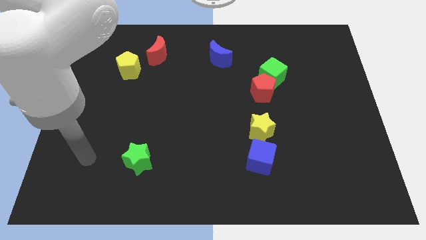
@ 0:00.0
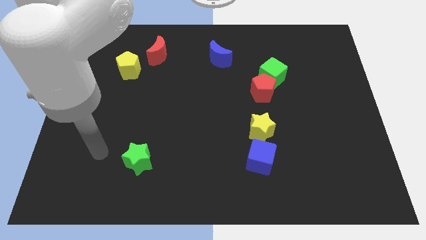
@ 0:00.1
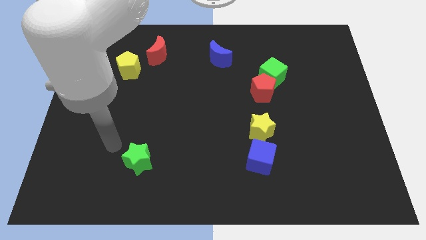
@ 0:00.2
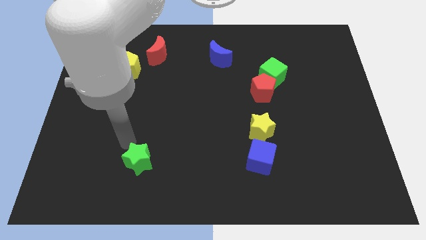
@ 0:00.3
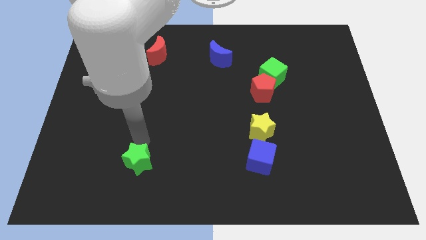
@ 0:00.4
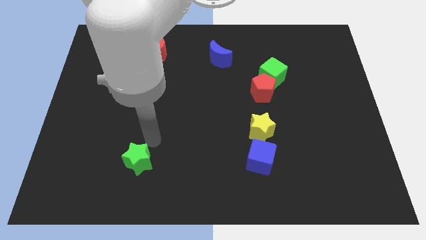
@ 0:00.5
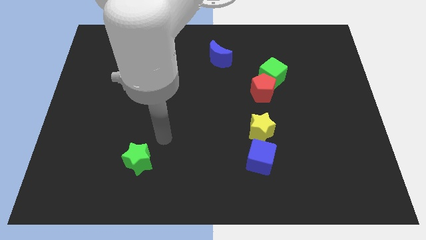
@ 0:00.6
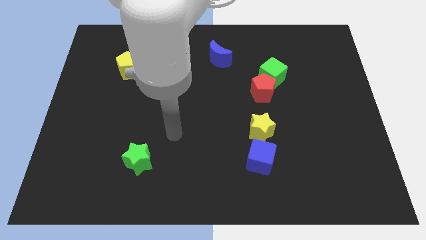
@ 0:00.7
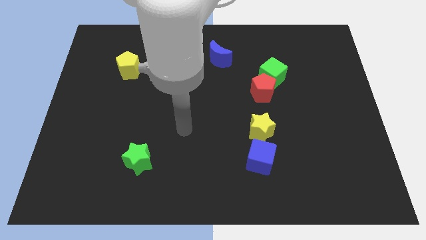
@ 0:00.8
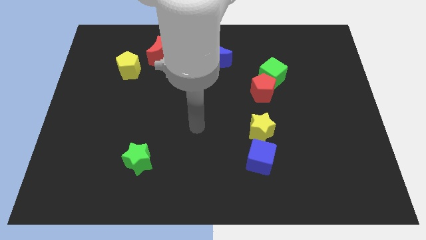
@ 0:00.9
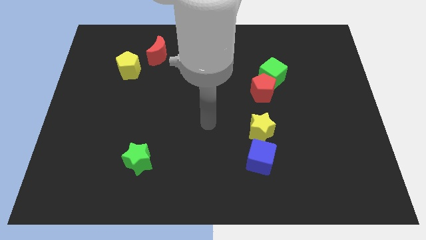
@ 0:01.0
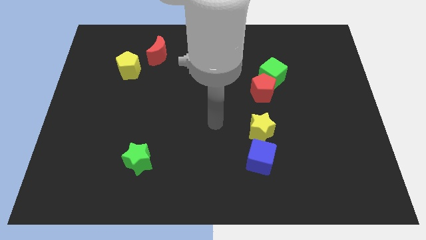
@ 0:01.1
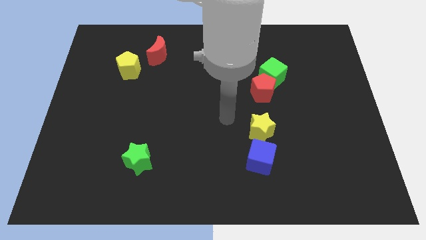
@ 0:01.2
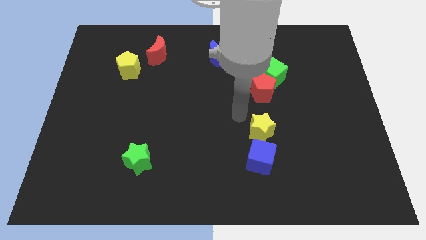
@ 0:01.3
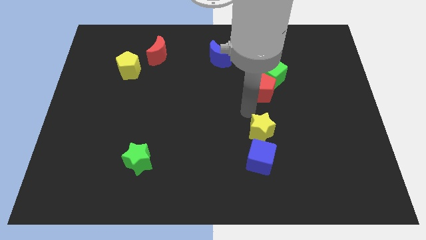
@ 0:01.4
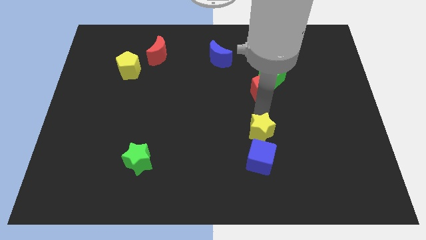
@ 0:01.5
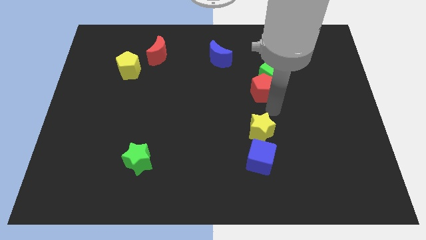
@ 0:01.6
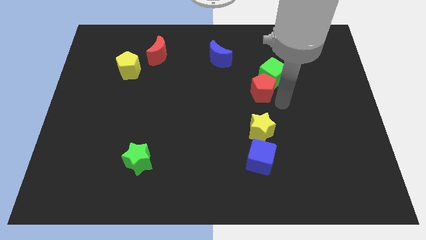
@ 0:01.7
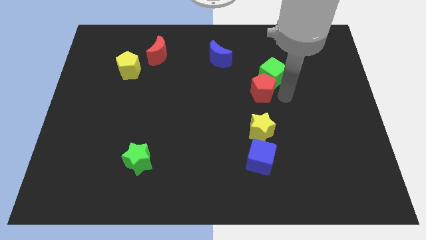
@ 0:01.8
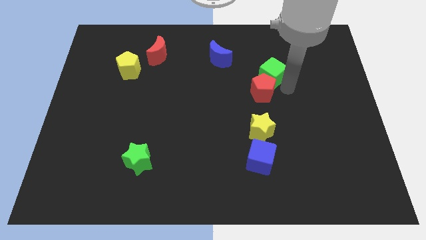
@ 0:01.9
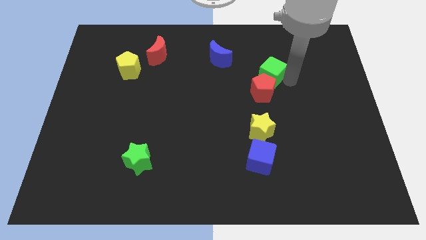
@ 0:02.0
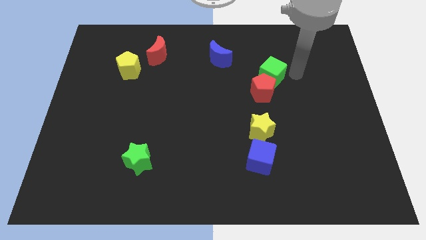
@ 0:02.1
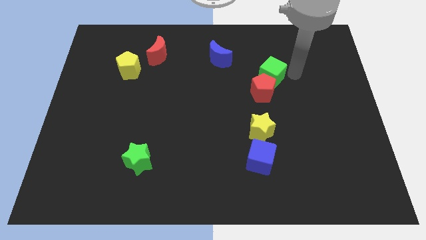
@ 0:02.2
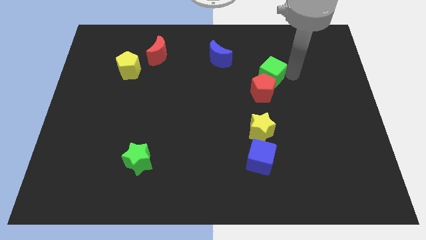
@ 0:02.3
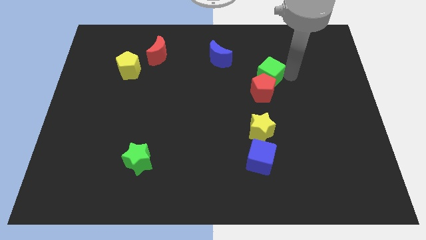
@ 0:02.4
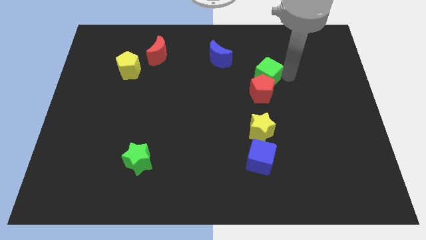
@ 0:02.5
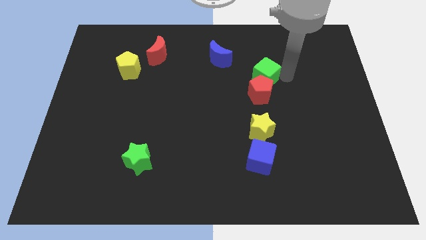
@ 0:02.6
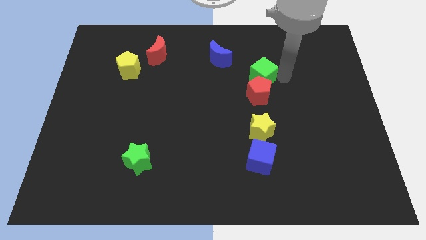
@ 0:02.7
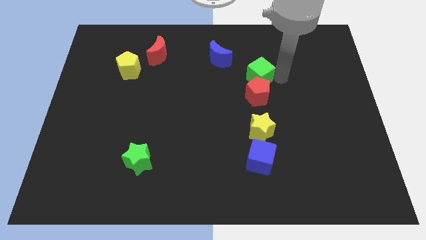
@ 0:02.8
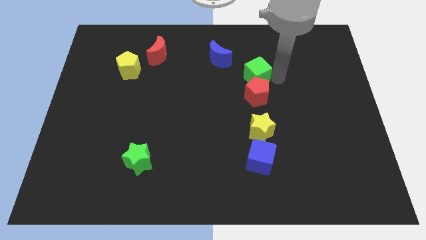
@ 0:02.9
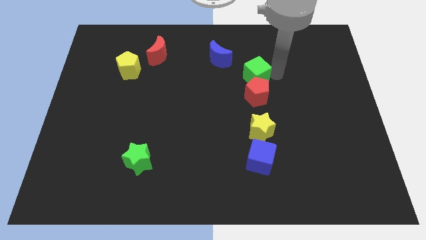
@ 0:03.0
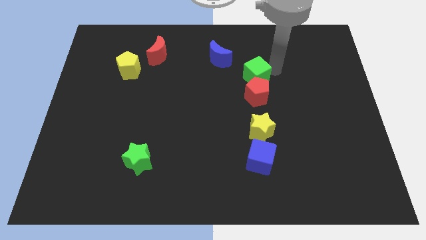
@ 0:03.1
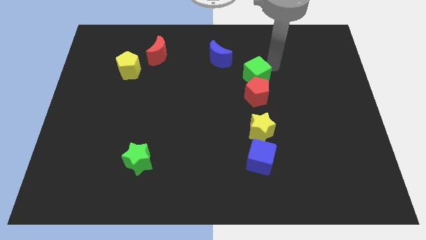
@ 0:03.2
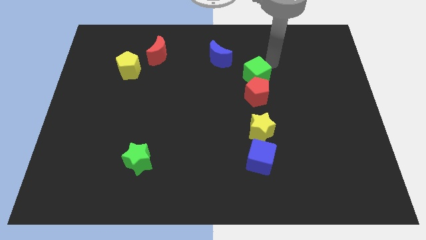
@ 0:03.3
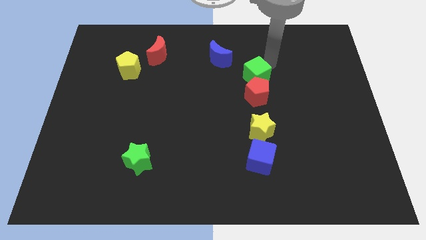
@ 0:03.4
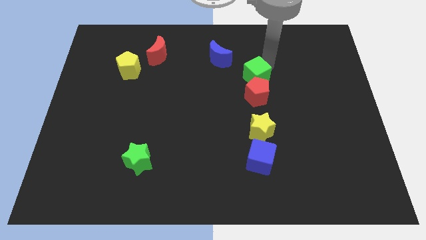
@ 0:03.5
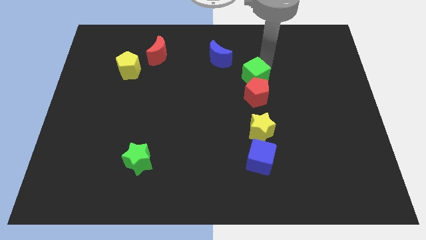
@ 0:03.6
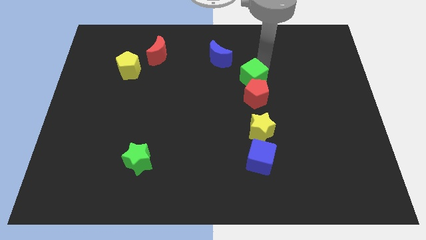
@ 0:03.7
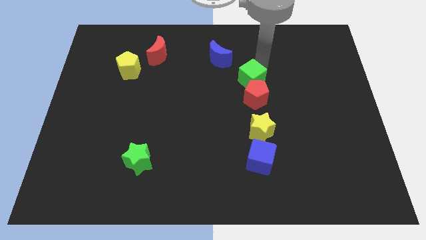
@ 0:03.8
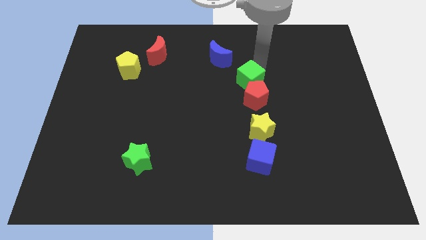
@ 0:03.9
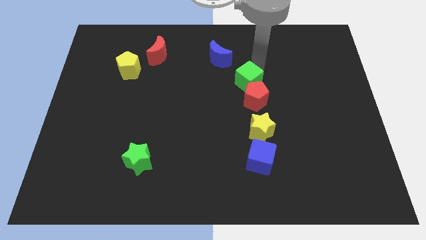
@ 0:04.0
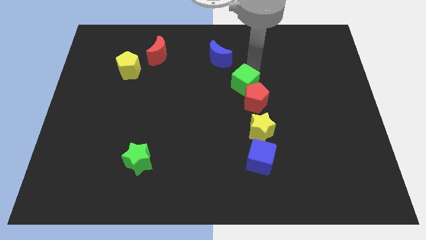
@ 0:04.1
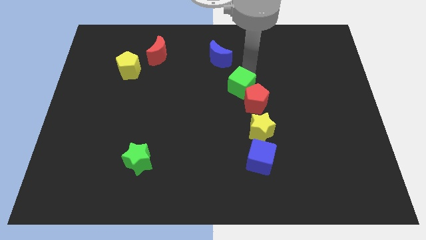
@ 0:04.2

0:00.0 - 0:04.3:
slightly push the green cube down and left diagonally

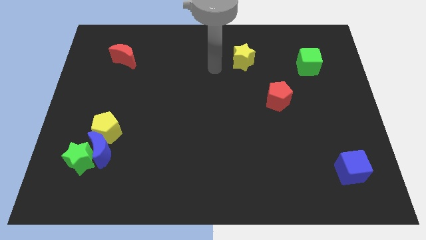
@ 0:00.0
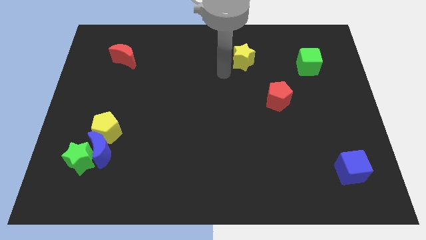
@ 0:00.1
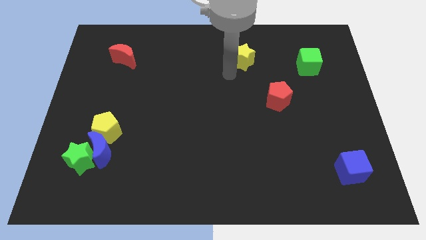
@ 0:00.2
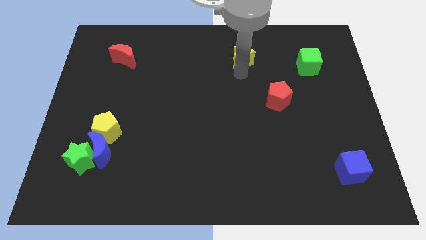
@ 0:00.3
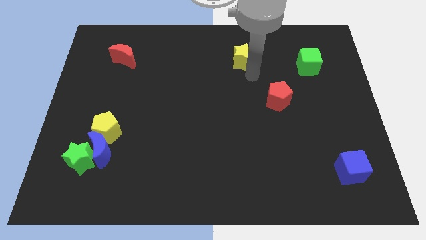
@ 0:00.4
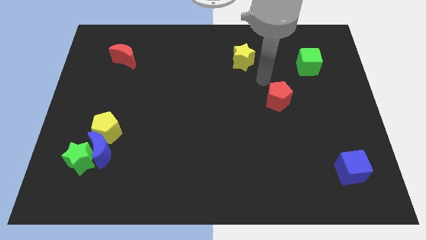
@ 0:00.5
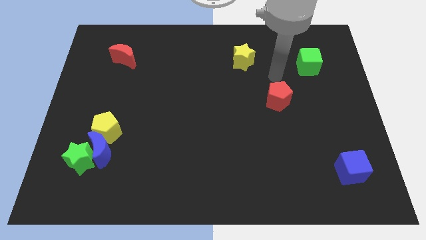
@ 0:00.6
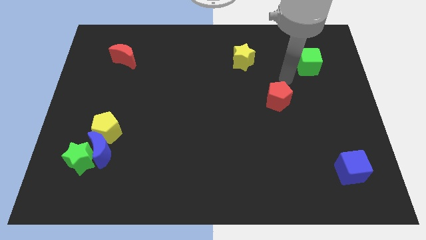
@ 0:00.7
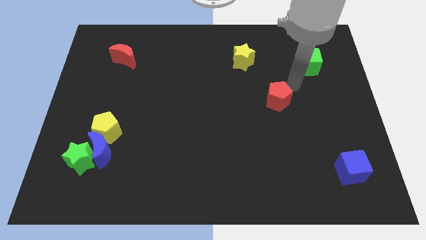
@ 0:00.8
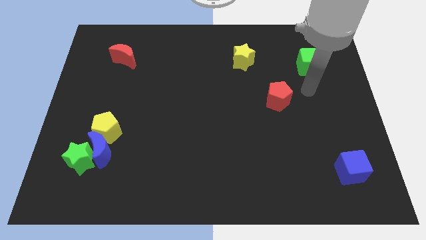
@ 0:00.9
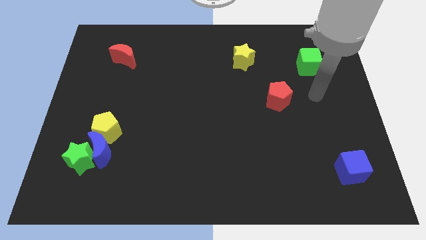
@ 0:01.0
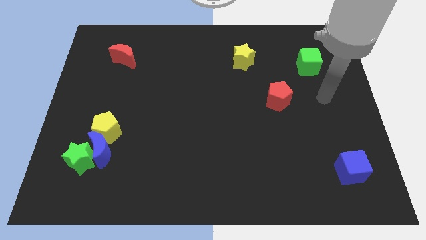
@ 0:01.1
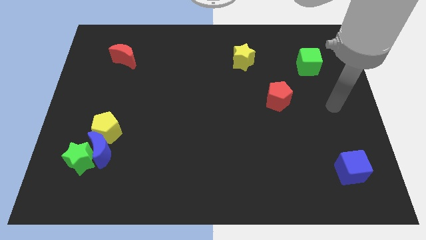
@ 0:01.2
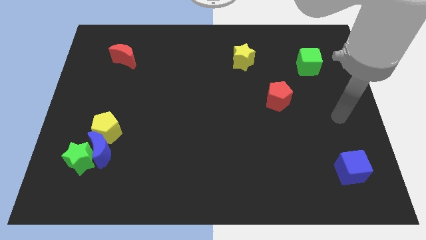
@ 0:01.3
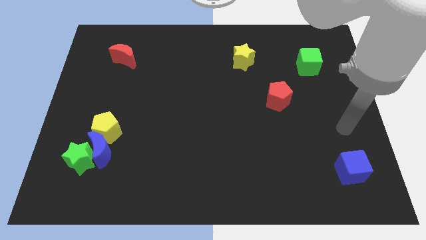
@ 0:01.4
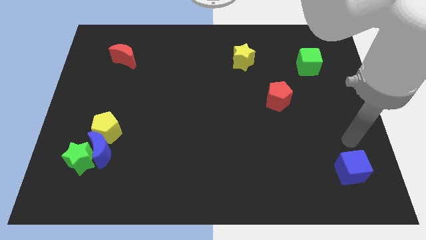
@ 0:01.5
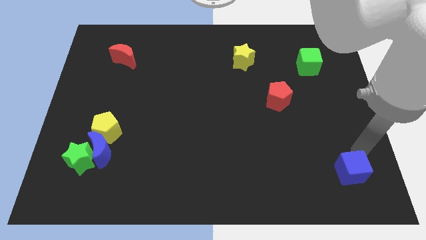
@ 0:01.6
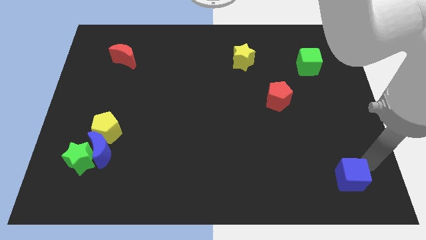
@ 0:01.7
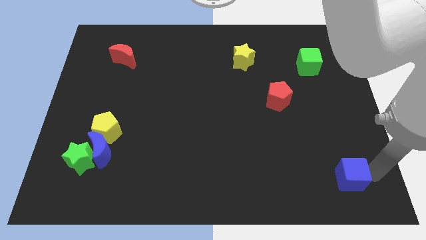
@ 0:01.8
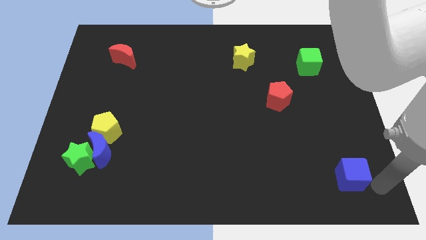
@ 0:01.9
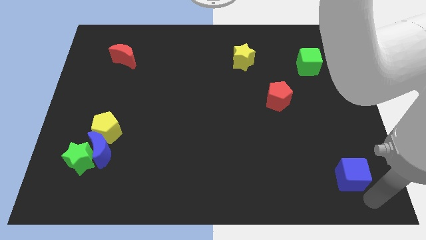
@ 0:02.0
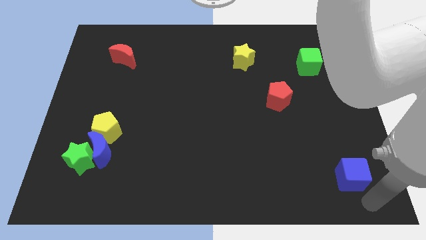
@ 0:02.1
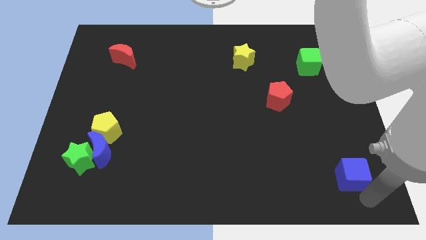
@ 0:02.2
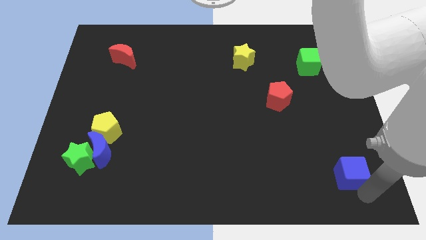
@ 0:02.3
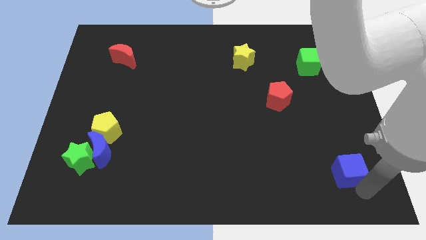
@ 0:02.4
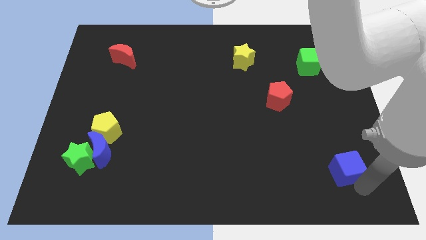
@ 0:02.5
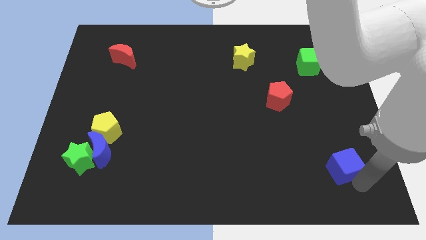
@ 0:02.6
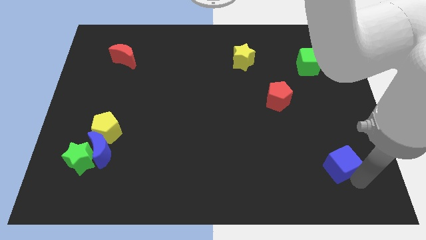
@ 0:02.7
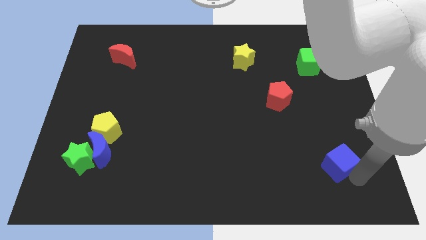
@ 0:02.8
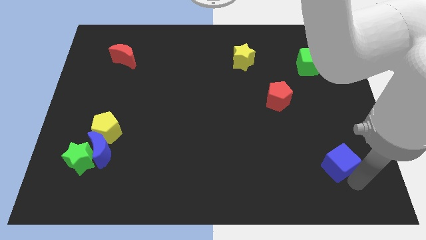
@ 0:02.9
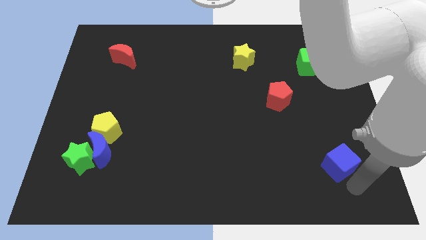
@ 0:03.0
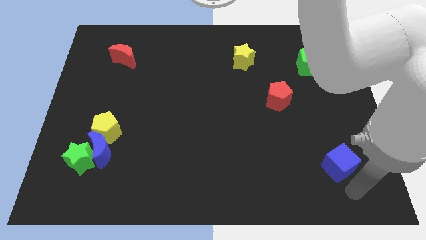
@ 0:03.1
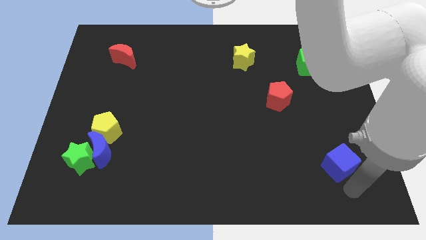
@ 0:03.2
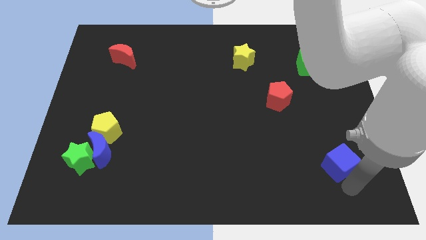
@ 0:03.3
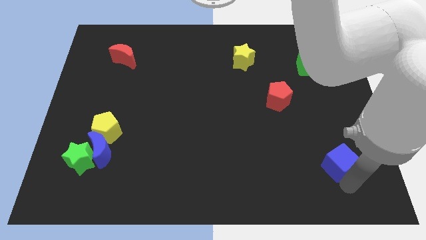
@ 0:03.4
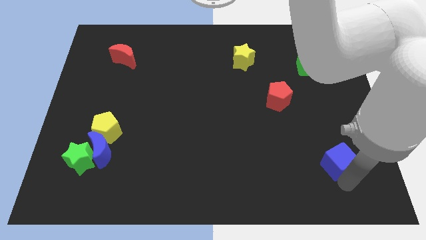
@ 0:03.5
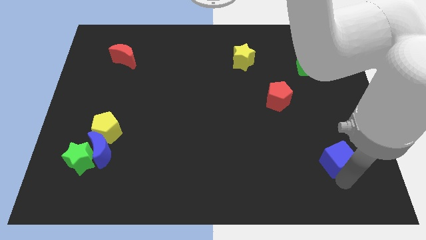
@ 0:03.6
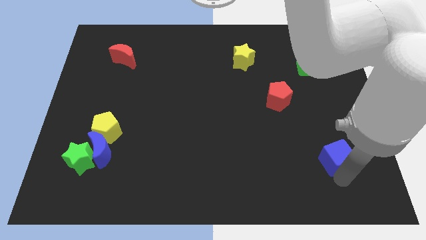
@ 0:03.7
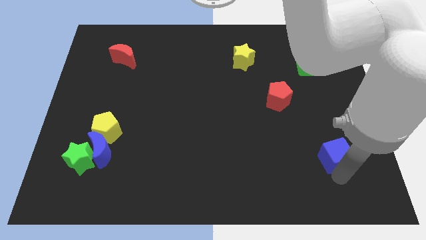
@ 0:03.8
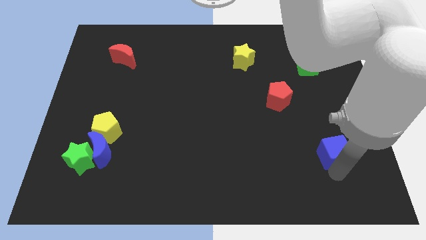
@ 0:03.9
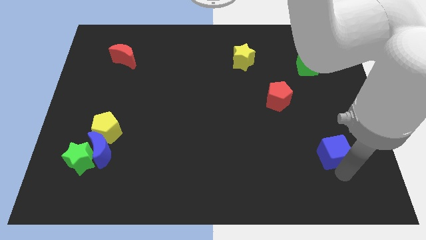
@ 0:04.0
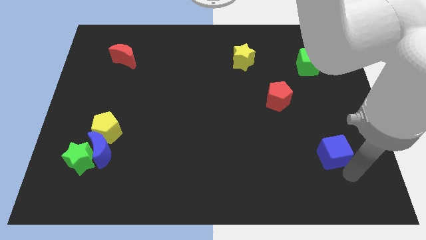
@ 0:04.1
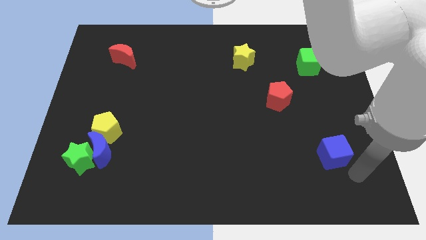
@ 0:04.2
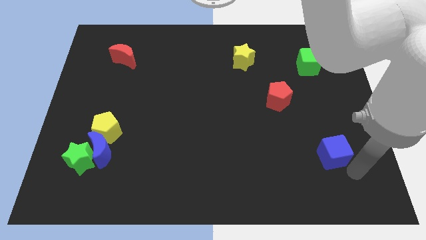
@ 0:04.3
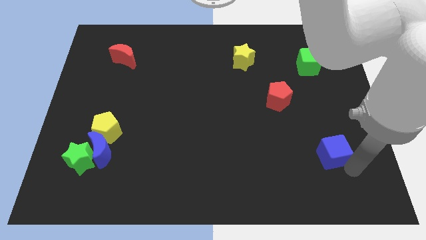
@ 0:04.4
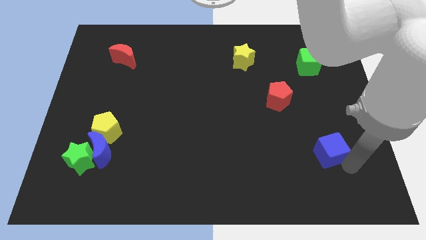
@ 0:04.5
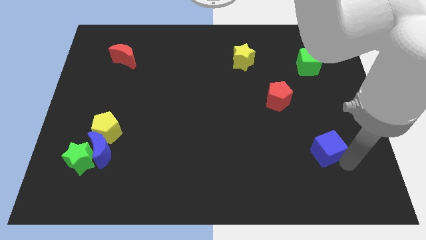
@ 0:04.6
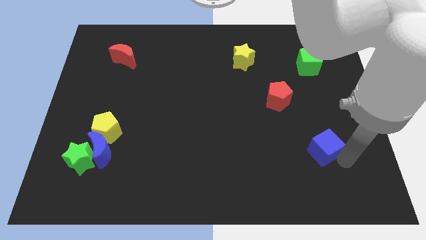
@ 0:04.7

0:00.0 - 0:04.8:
push the blue cube up and to the left diagonally somewhat
